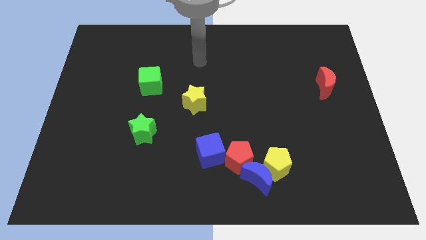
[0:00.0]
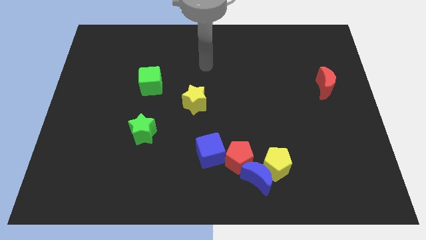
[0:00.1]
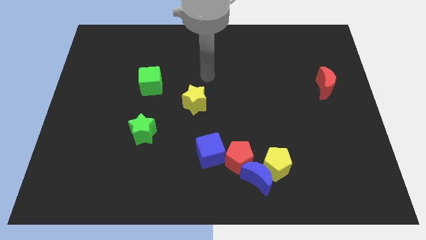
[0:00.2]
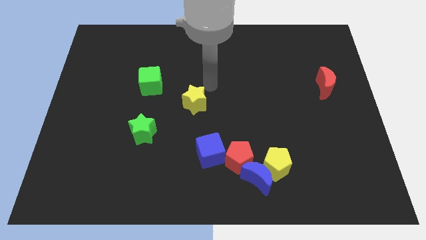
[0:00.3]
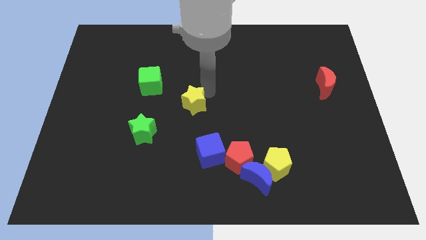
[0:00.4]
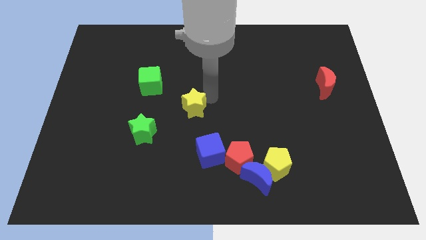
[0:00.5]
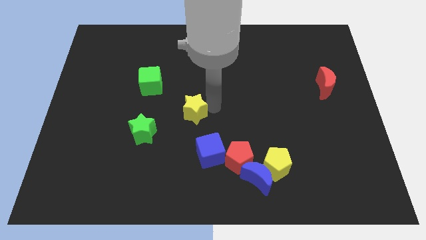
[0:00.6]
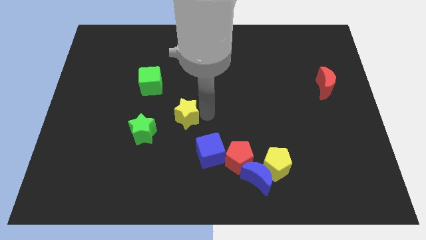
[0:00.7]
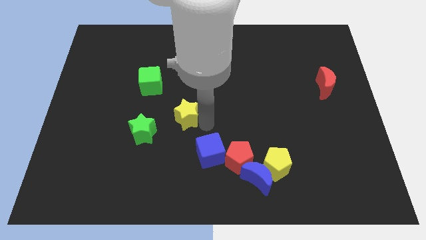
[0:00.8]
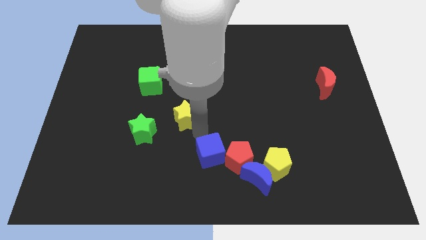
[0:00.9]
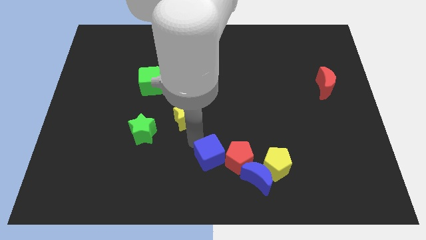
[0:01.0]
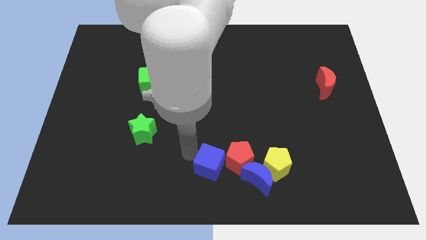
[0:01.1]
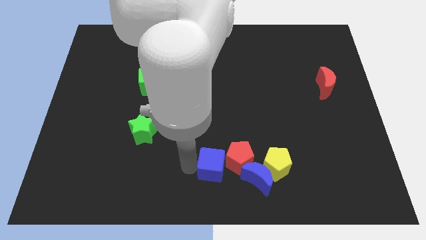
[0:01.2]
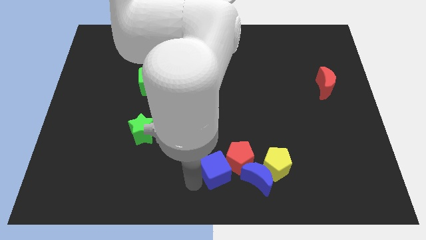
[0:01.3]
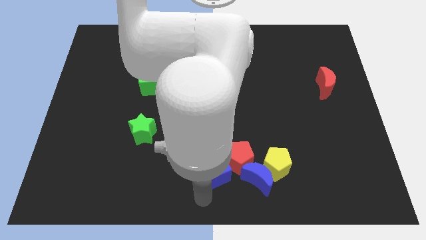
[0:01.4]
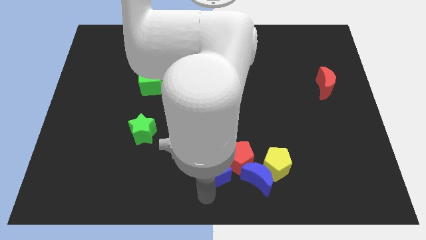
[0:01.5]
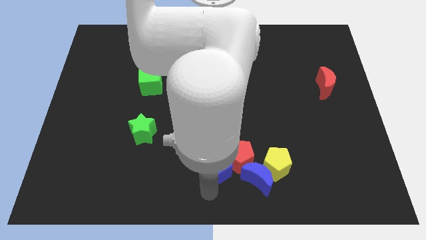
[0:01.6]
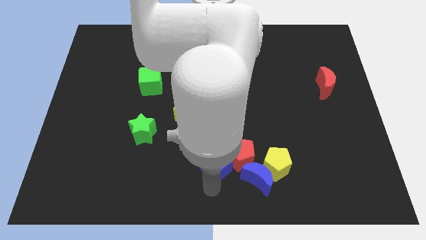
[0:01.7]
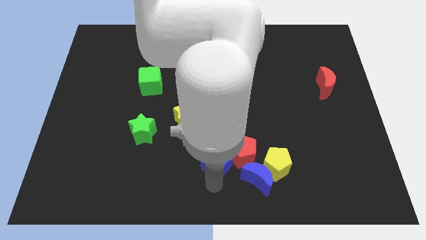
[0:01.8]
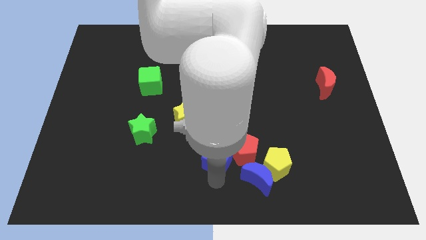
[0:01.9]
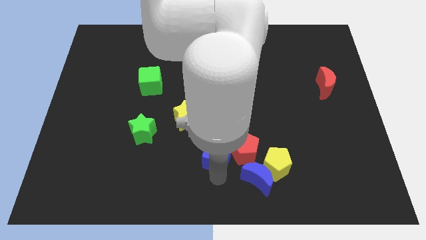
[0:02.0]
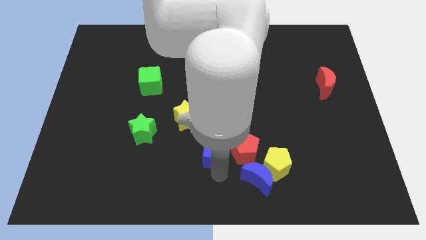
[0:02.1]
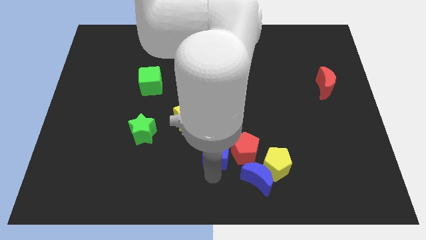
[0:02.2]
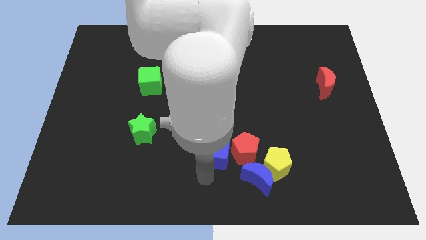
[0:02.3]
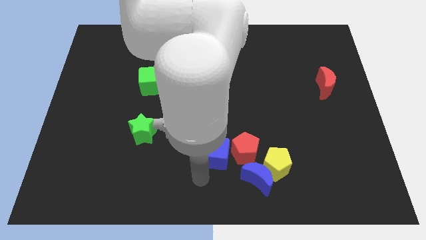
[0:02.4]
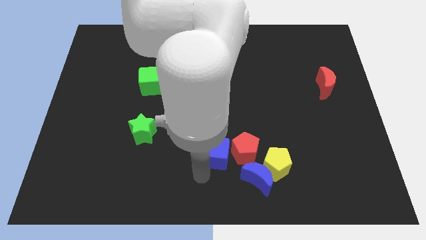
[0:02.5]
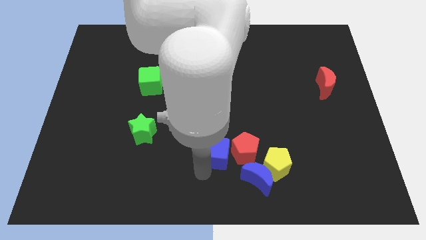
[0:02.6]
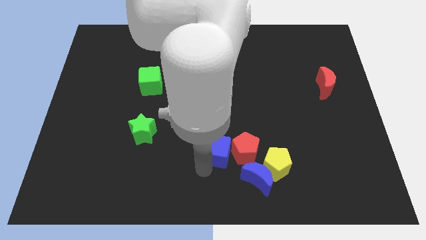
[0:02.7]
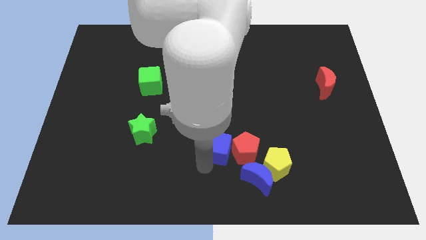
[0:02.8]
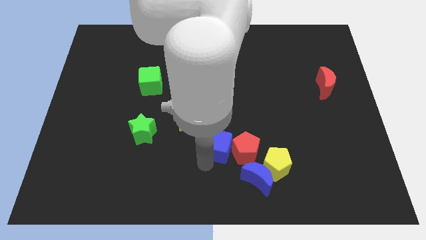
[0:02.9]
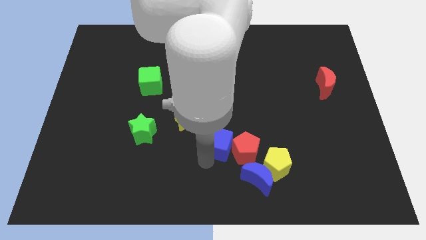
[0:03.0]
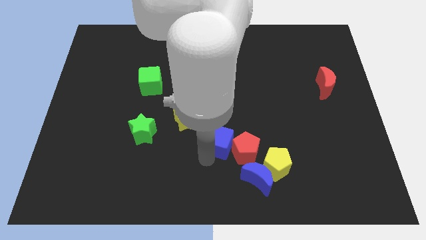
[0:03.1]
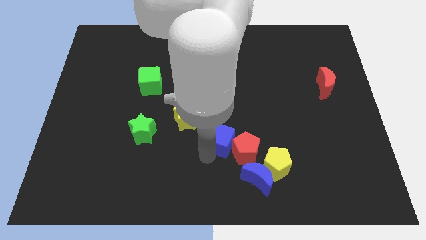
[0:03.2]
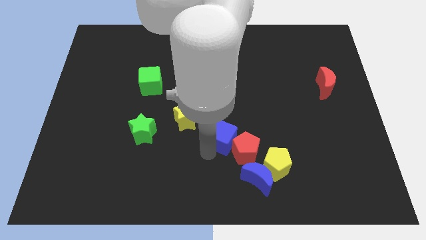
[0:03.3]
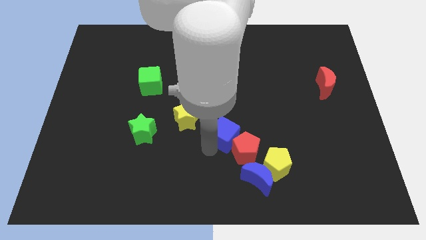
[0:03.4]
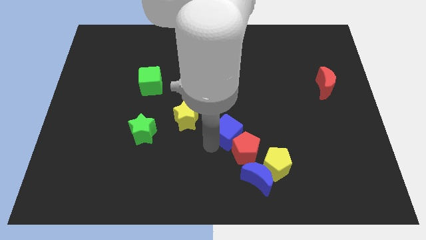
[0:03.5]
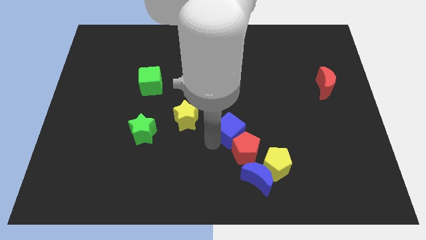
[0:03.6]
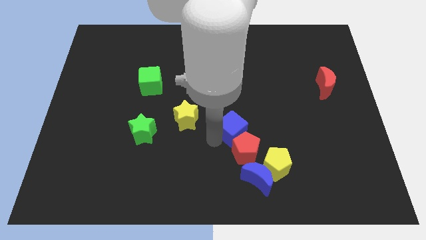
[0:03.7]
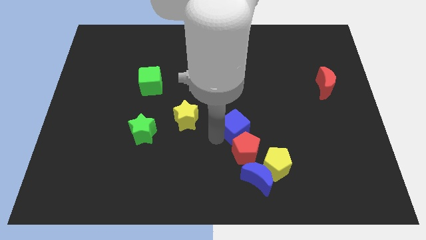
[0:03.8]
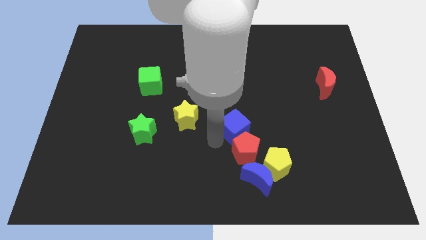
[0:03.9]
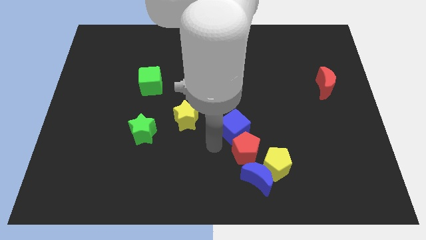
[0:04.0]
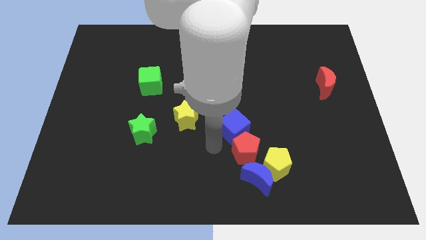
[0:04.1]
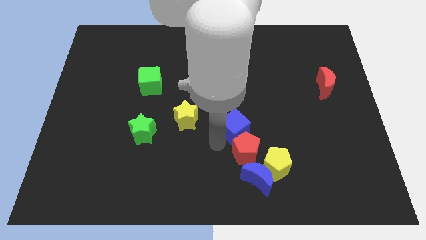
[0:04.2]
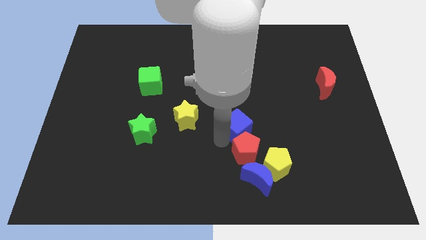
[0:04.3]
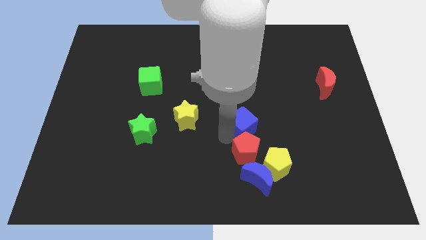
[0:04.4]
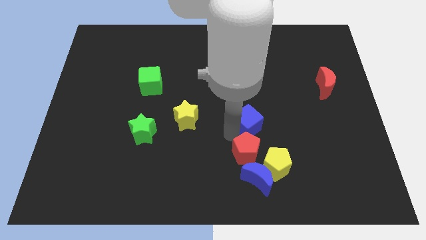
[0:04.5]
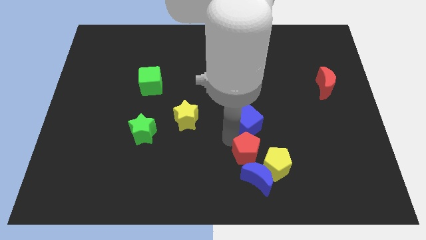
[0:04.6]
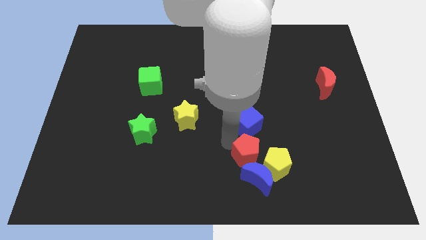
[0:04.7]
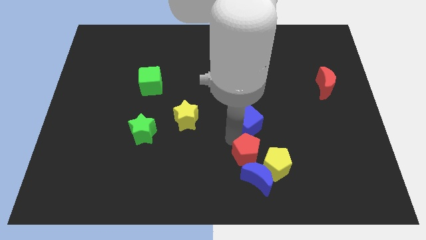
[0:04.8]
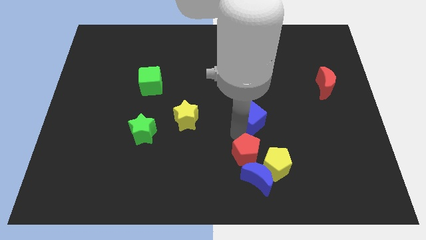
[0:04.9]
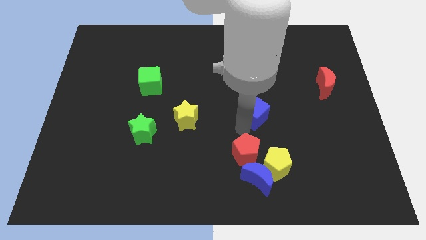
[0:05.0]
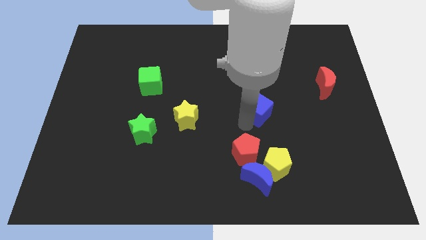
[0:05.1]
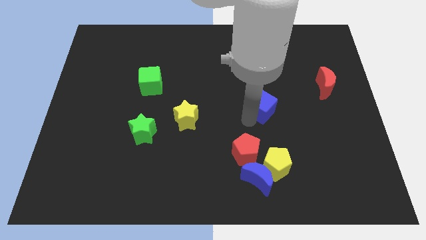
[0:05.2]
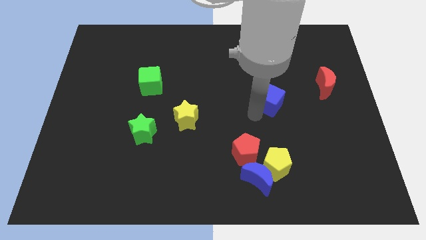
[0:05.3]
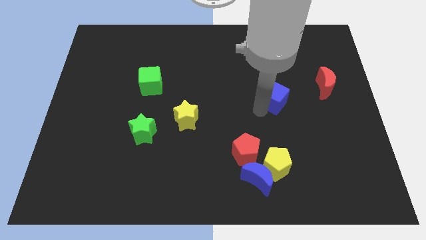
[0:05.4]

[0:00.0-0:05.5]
push the blue cube to the left side of the red moon
